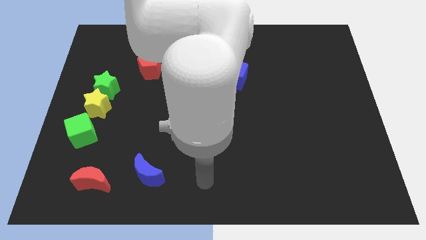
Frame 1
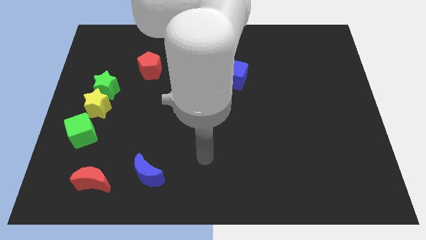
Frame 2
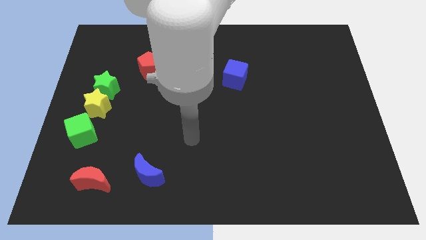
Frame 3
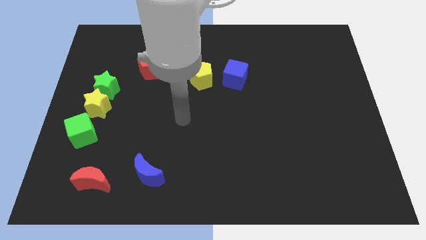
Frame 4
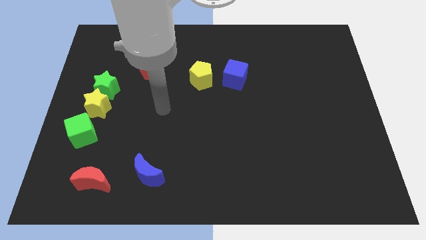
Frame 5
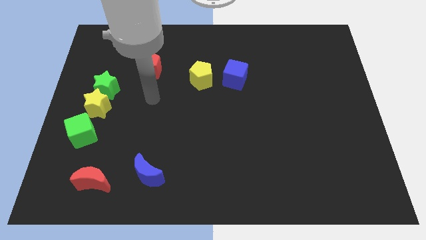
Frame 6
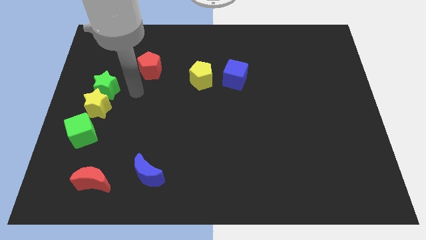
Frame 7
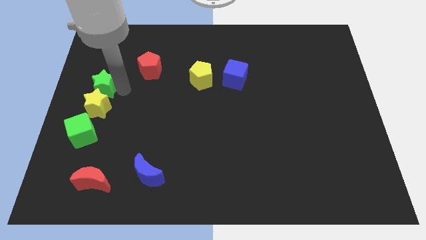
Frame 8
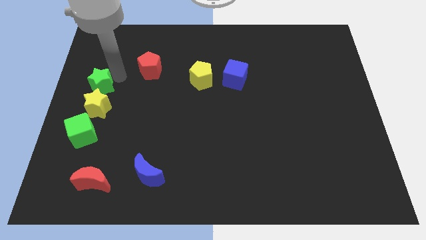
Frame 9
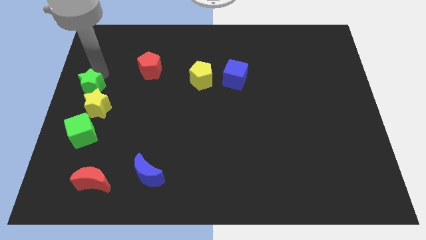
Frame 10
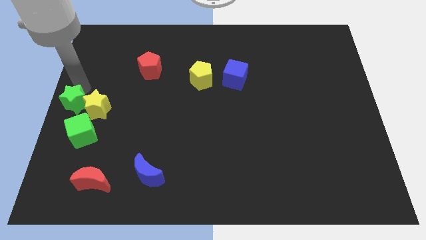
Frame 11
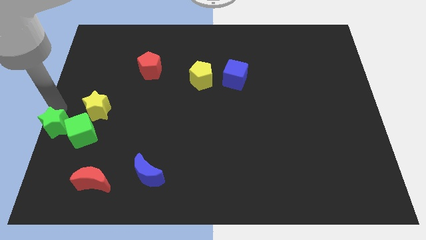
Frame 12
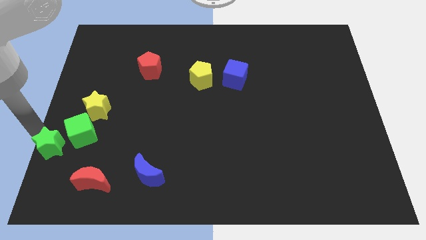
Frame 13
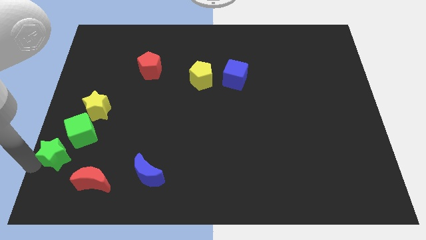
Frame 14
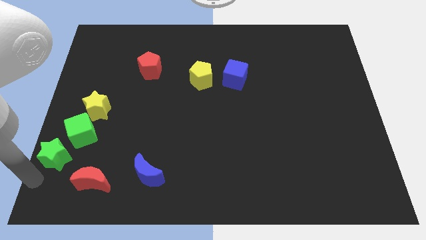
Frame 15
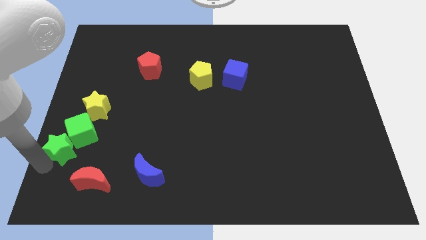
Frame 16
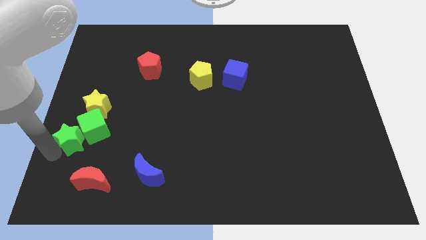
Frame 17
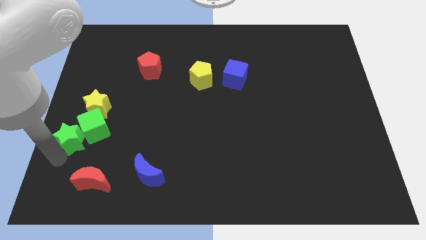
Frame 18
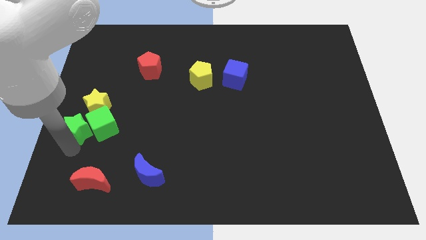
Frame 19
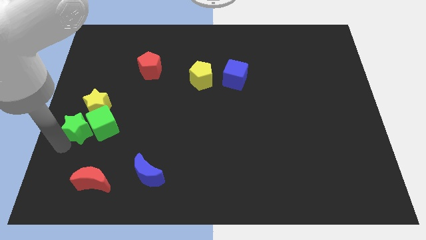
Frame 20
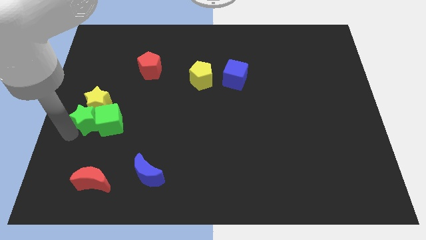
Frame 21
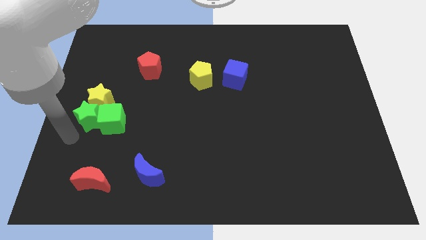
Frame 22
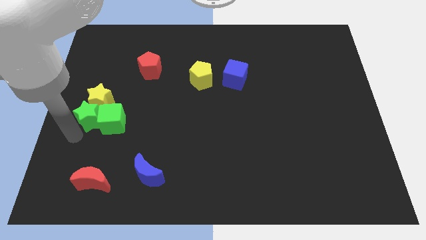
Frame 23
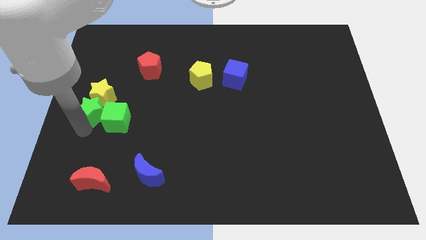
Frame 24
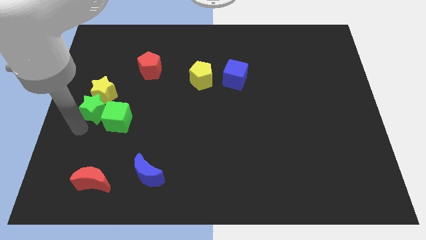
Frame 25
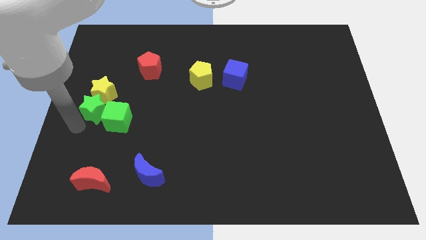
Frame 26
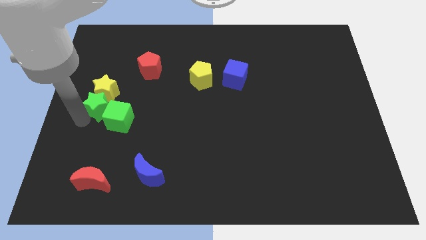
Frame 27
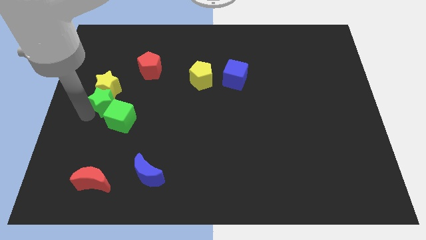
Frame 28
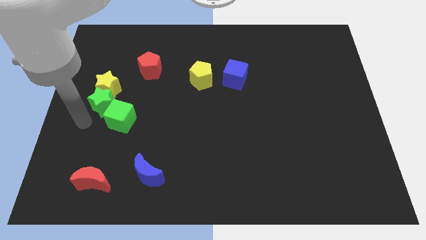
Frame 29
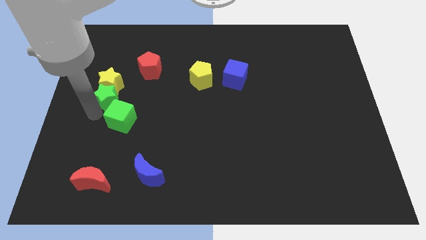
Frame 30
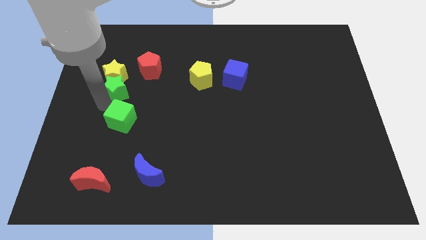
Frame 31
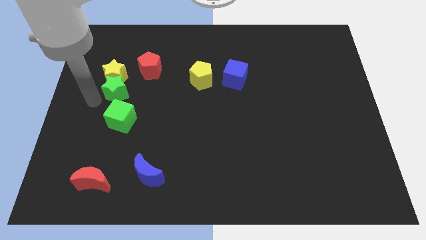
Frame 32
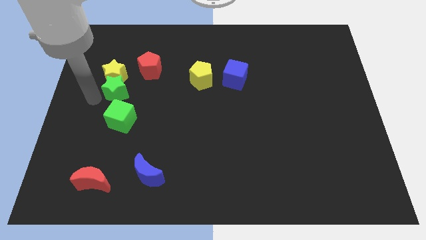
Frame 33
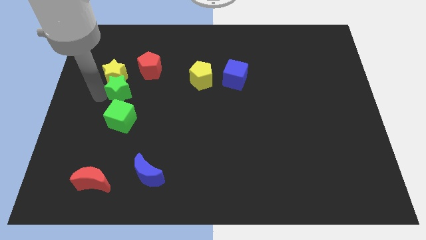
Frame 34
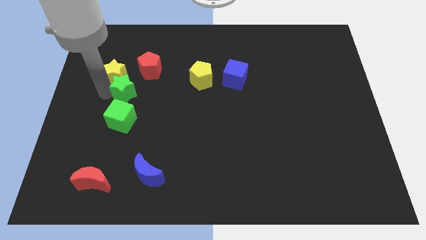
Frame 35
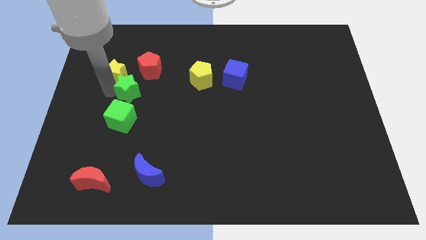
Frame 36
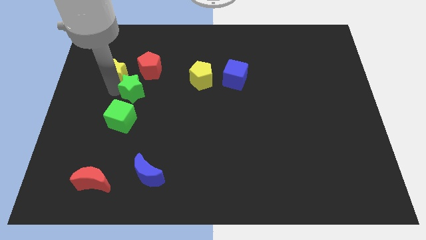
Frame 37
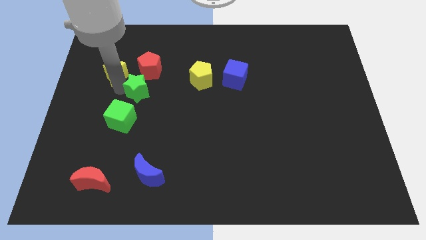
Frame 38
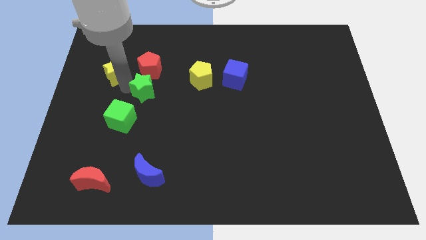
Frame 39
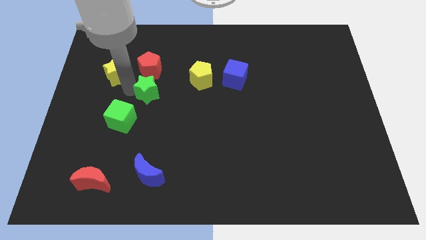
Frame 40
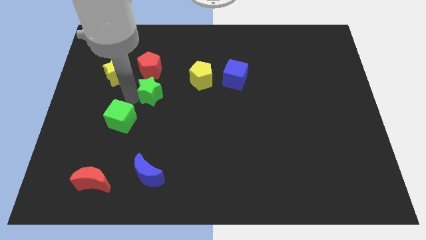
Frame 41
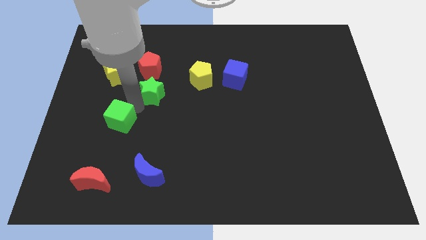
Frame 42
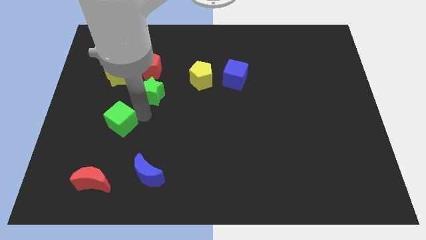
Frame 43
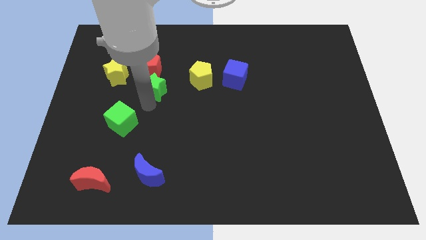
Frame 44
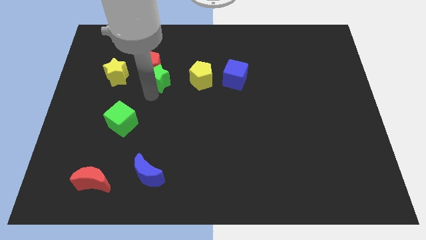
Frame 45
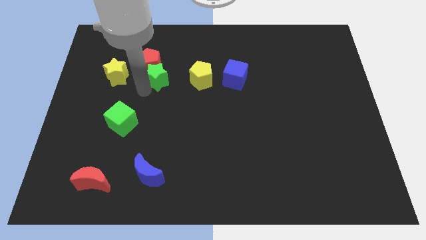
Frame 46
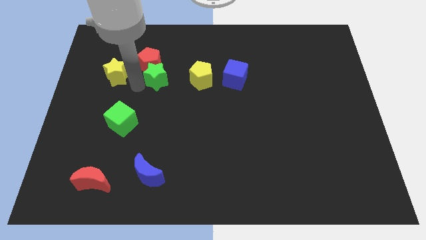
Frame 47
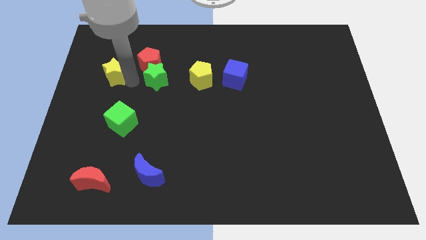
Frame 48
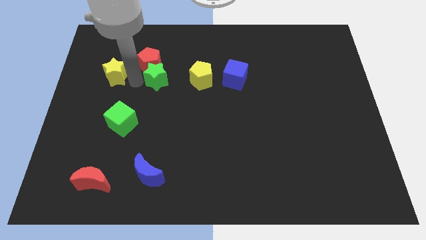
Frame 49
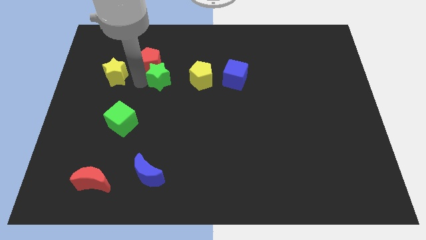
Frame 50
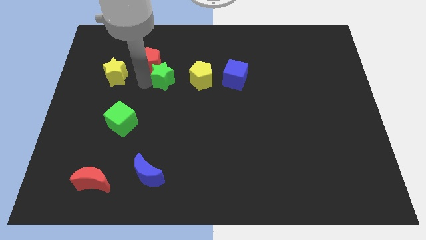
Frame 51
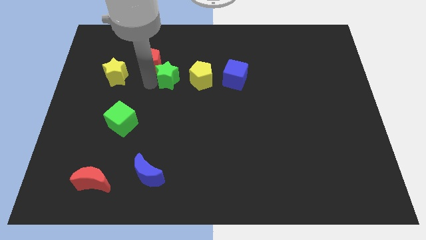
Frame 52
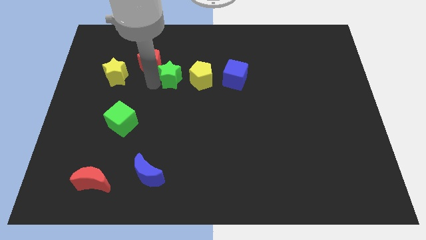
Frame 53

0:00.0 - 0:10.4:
put the green star just left of the blue cube

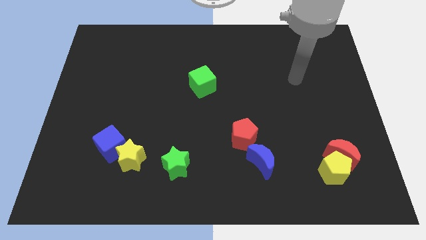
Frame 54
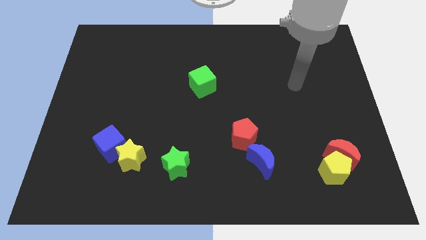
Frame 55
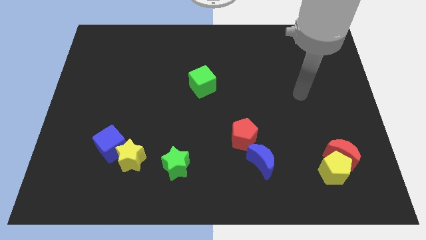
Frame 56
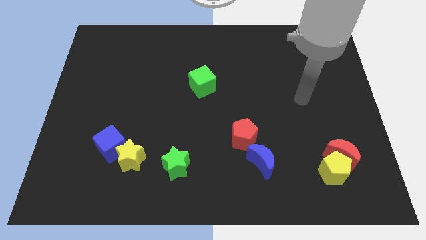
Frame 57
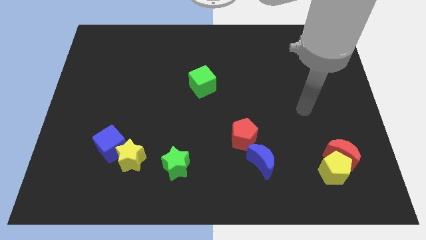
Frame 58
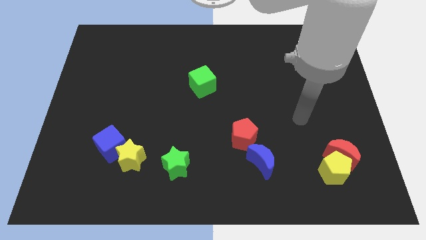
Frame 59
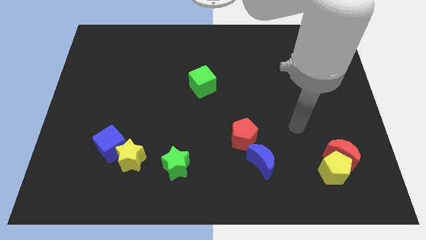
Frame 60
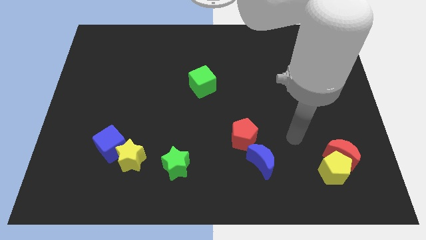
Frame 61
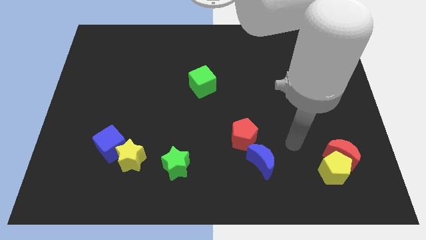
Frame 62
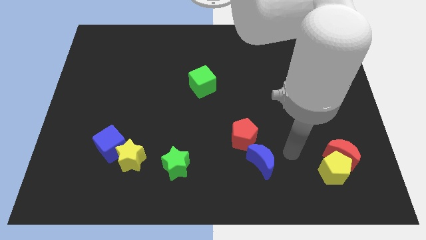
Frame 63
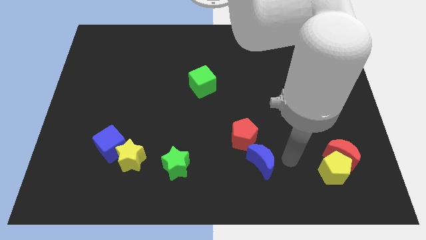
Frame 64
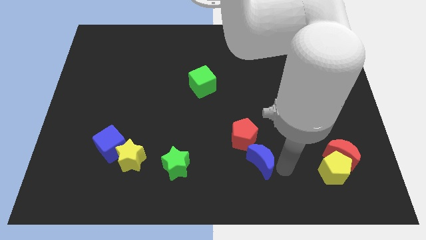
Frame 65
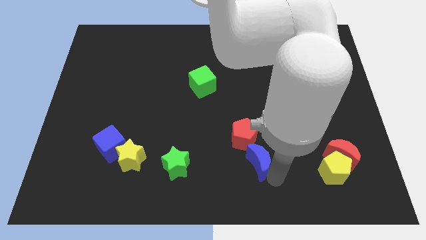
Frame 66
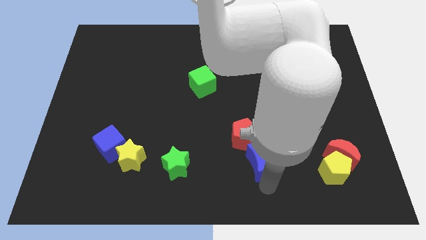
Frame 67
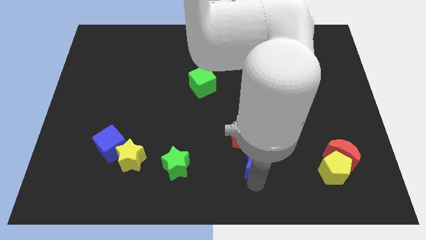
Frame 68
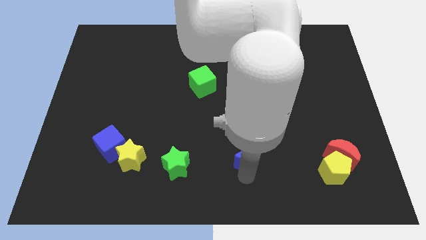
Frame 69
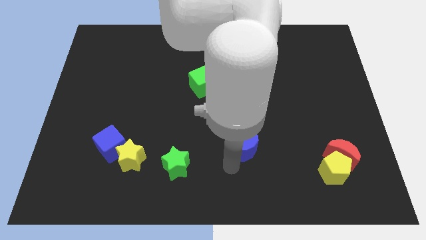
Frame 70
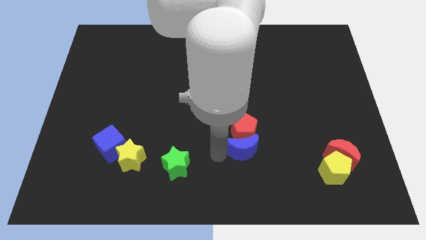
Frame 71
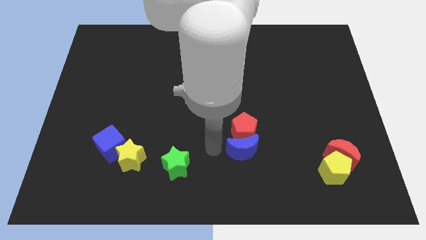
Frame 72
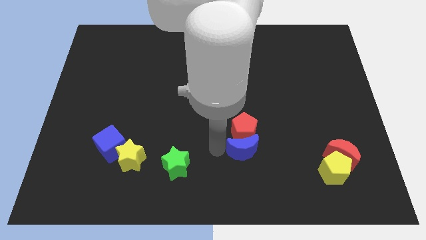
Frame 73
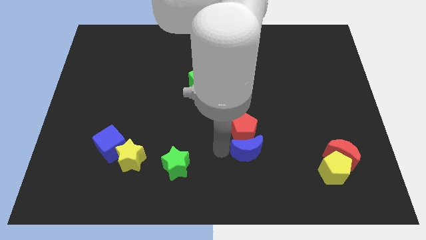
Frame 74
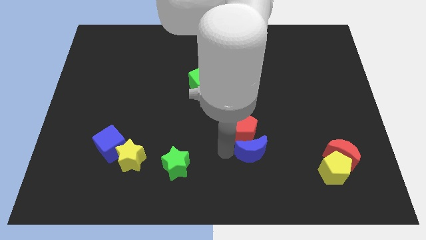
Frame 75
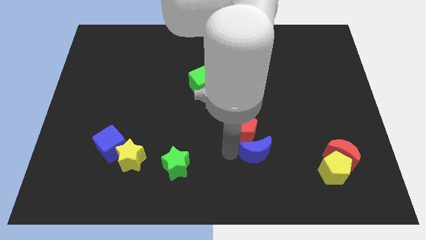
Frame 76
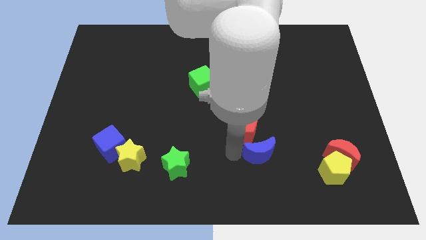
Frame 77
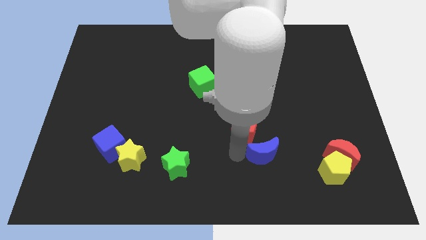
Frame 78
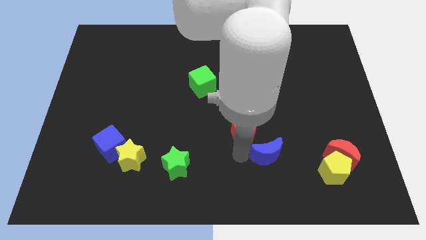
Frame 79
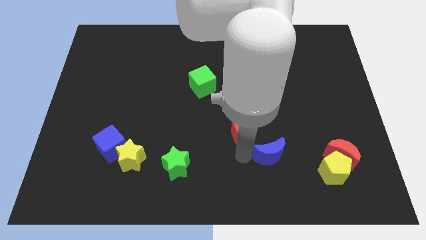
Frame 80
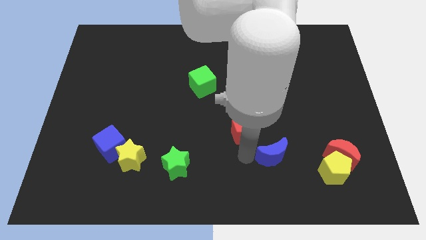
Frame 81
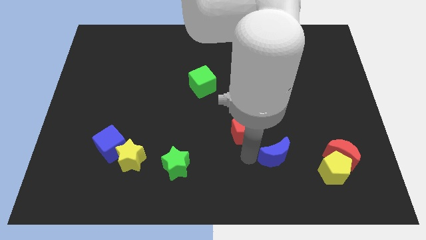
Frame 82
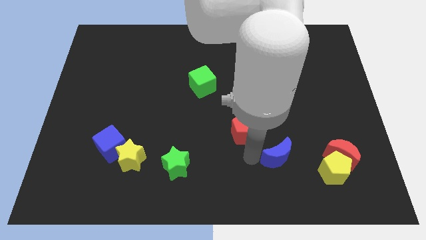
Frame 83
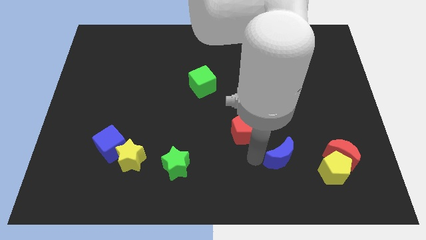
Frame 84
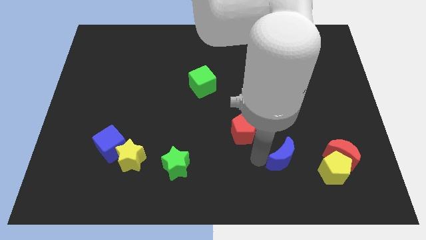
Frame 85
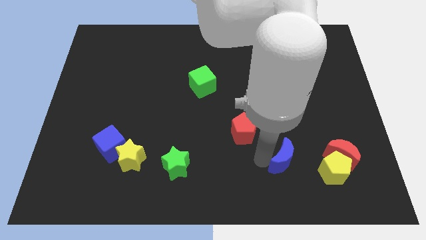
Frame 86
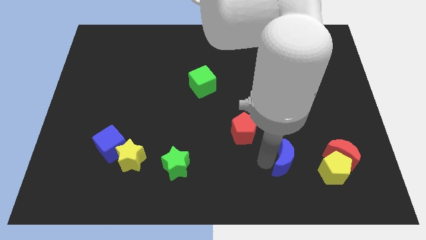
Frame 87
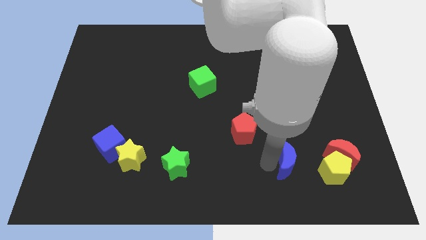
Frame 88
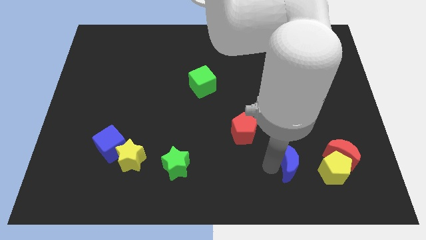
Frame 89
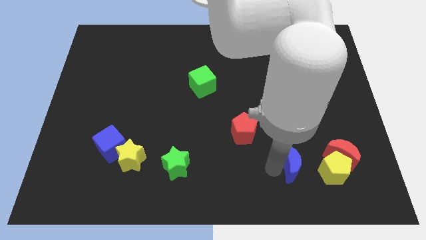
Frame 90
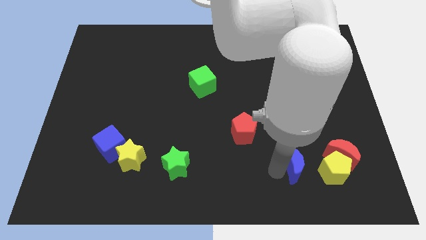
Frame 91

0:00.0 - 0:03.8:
put the blue moon to the top left side of the yellow pentagon
